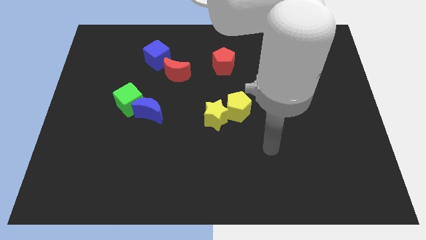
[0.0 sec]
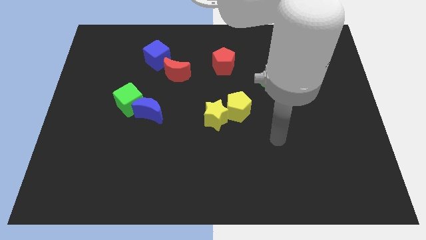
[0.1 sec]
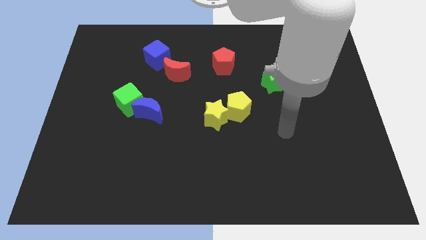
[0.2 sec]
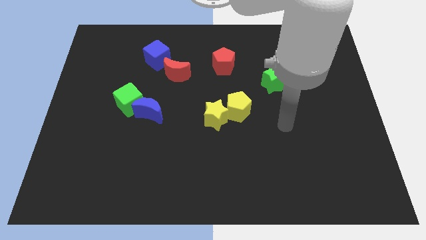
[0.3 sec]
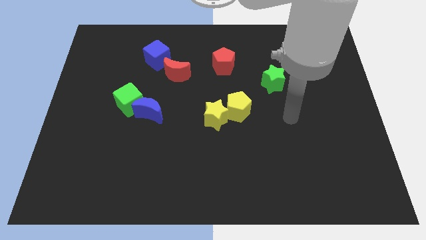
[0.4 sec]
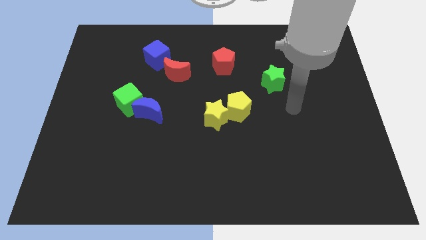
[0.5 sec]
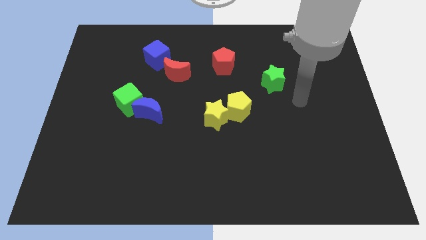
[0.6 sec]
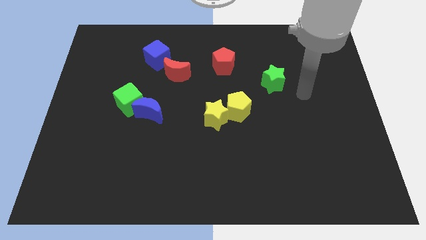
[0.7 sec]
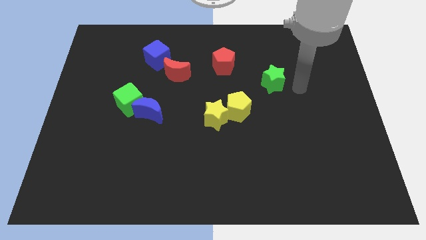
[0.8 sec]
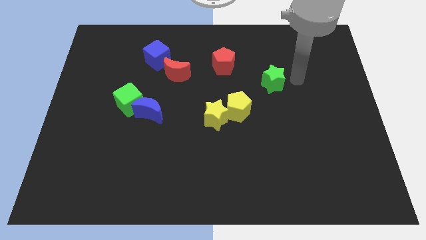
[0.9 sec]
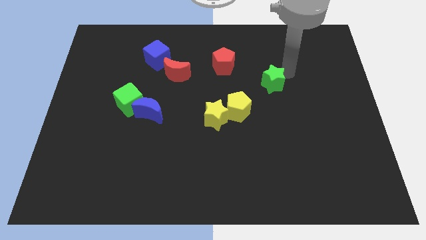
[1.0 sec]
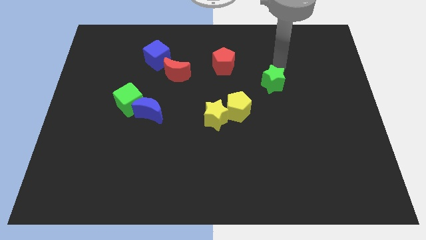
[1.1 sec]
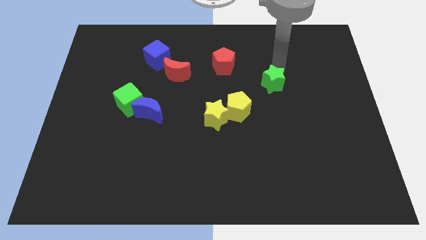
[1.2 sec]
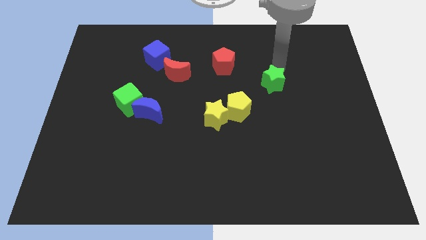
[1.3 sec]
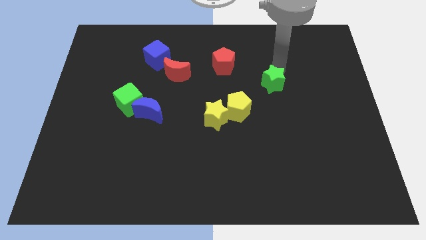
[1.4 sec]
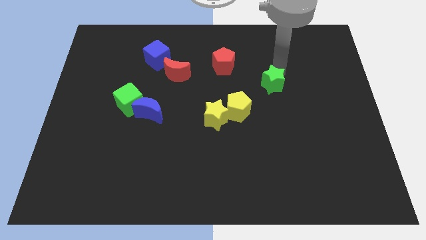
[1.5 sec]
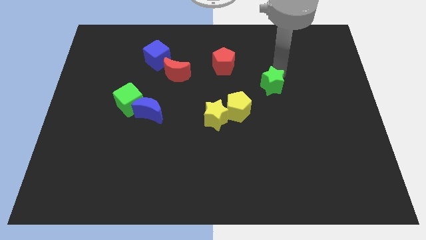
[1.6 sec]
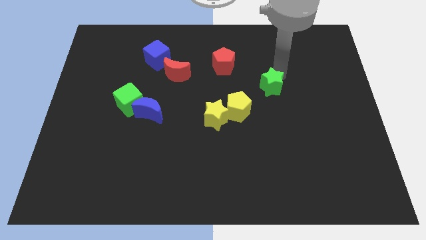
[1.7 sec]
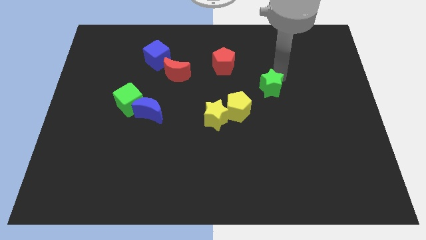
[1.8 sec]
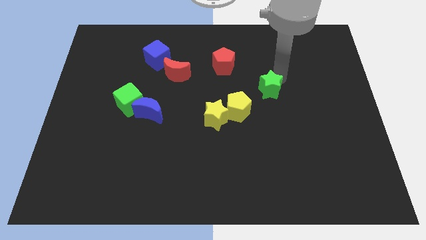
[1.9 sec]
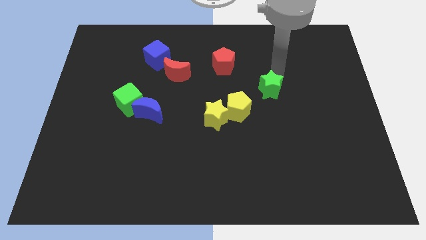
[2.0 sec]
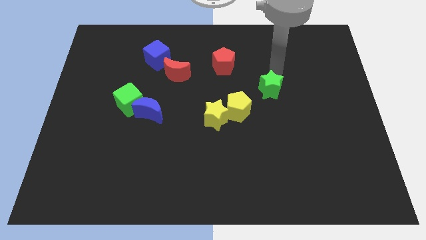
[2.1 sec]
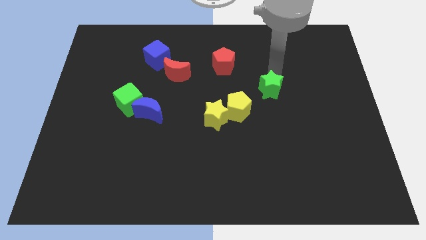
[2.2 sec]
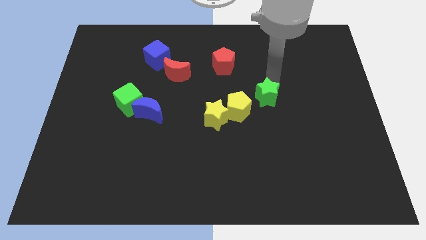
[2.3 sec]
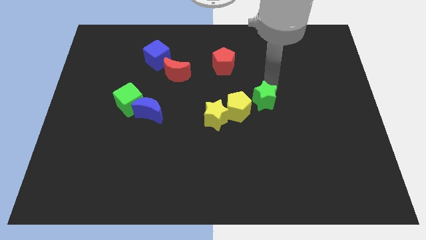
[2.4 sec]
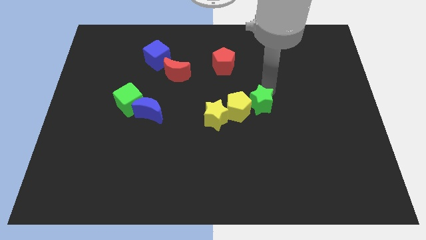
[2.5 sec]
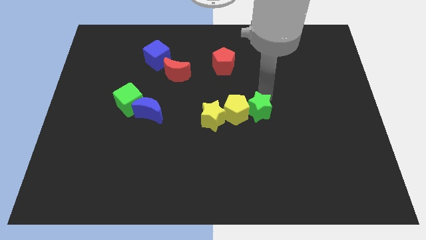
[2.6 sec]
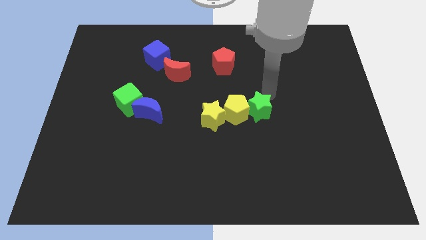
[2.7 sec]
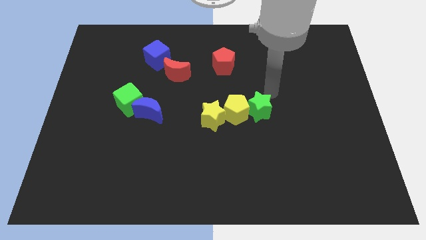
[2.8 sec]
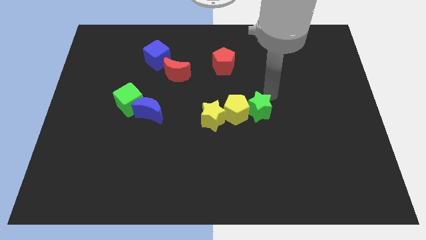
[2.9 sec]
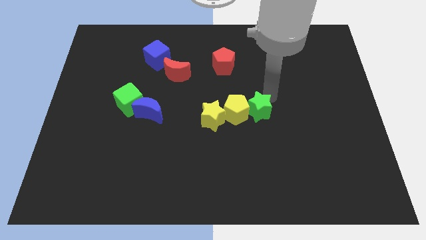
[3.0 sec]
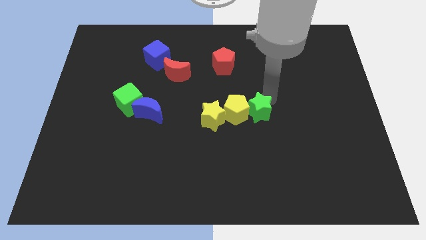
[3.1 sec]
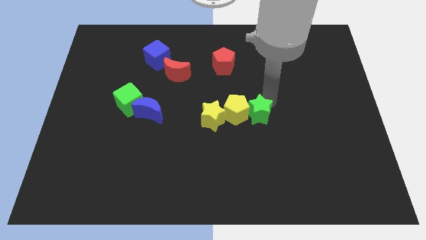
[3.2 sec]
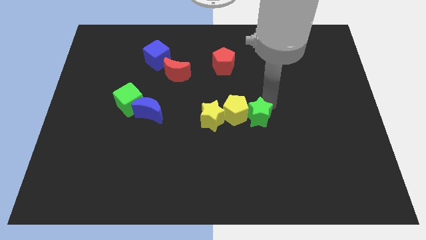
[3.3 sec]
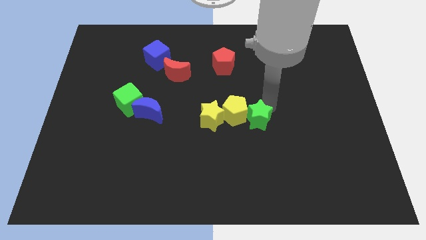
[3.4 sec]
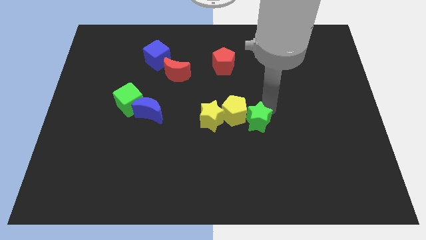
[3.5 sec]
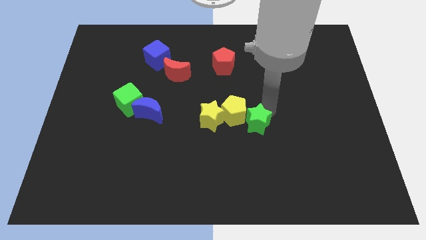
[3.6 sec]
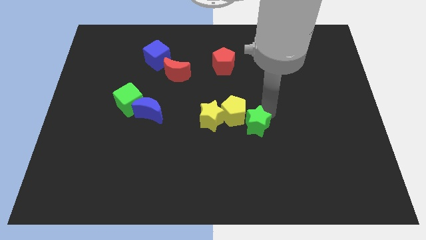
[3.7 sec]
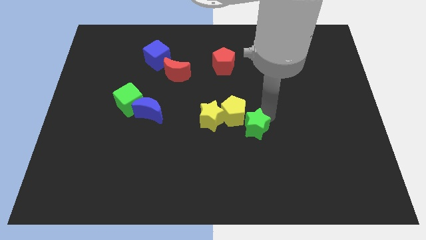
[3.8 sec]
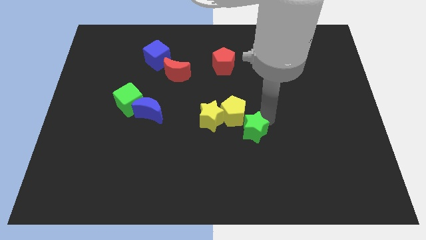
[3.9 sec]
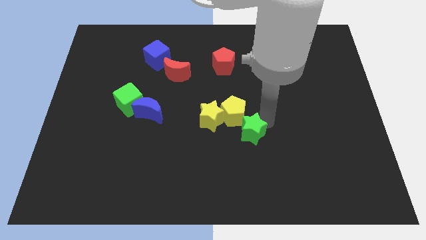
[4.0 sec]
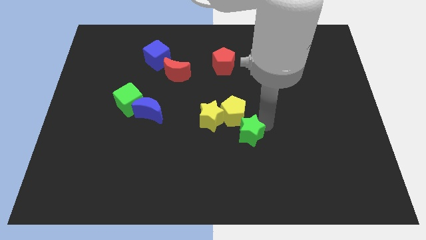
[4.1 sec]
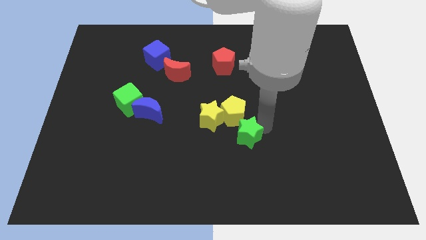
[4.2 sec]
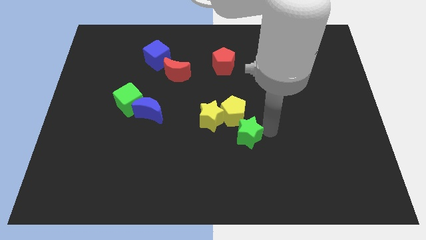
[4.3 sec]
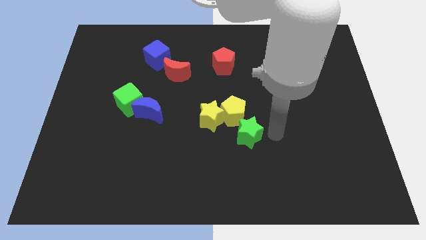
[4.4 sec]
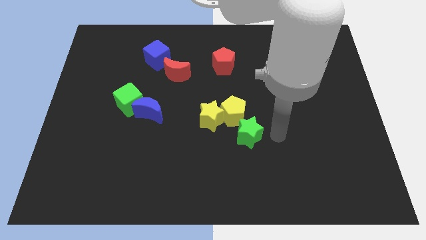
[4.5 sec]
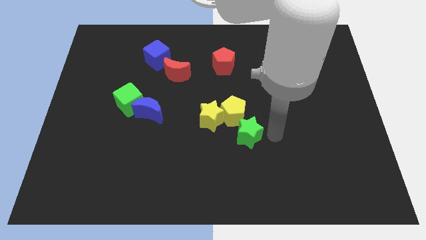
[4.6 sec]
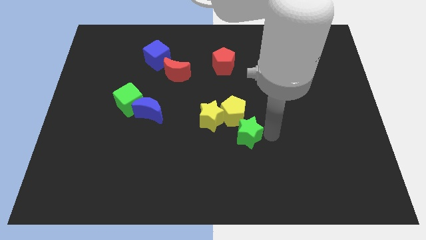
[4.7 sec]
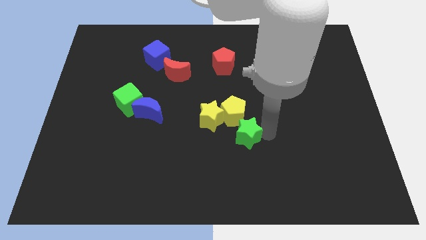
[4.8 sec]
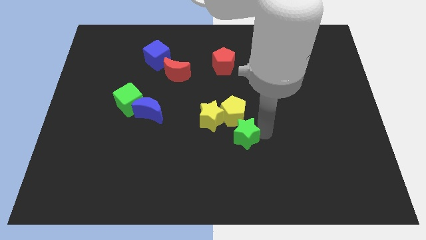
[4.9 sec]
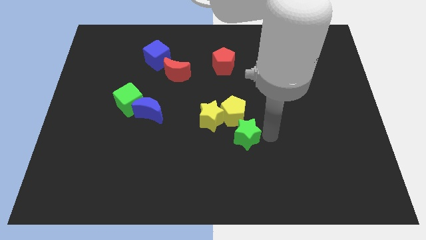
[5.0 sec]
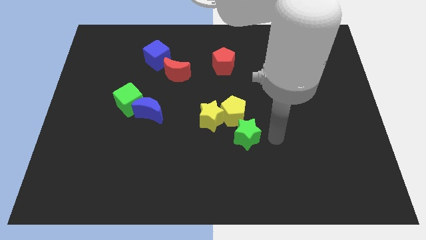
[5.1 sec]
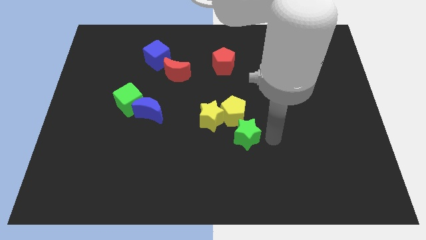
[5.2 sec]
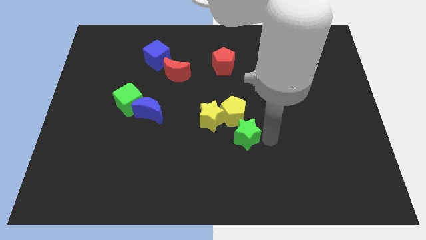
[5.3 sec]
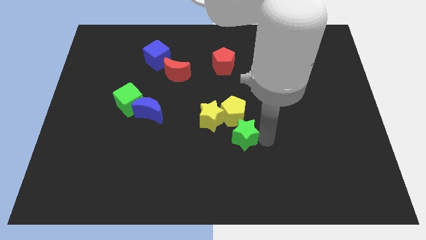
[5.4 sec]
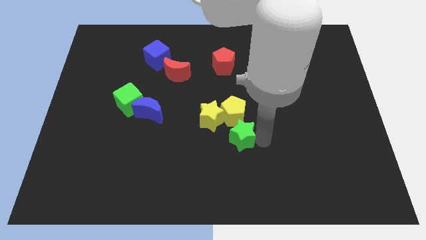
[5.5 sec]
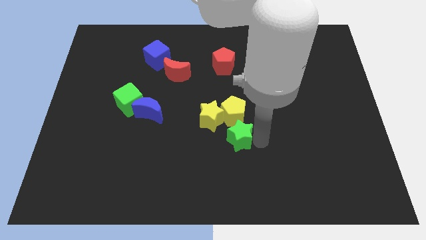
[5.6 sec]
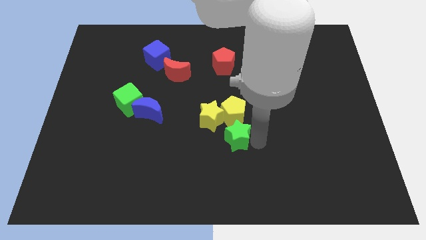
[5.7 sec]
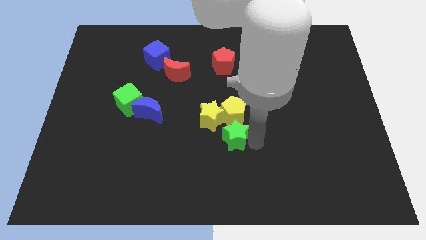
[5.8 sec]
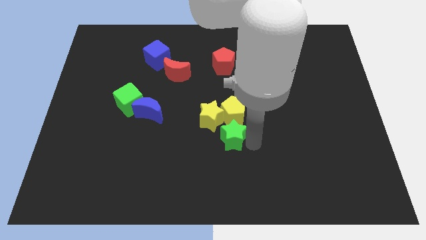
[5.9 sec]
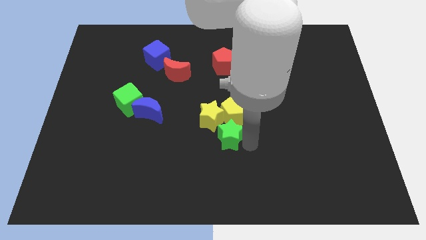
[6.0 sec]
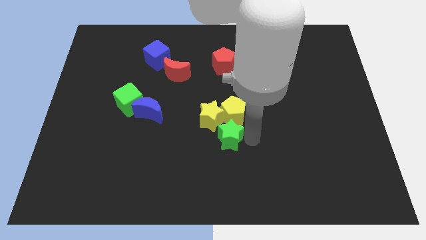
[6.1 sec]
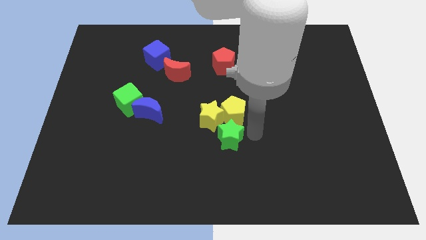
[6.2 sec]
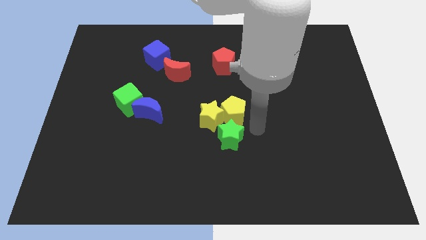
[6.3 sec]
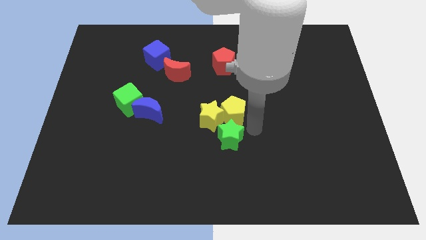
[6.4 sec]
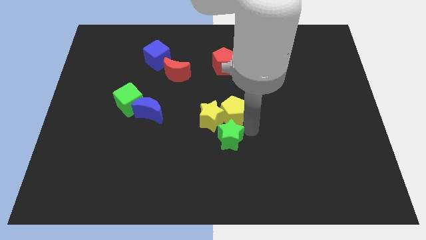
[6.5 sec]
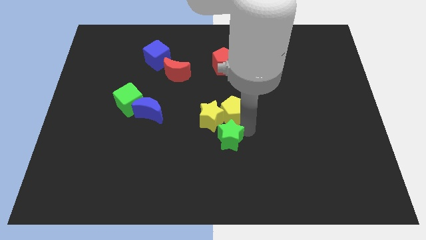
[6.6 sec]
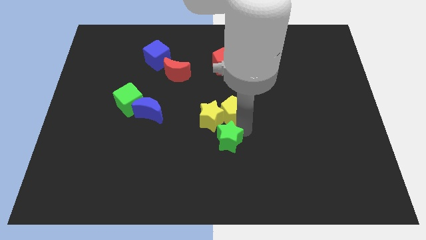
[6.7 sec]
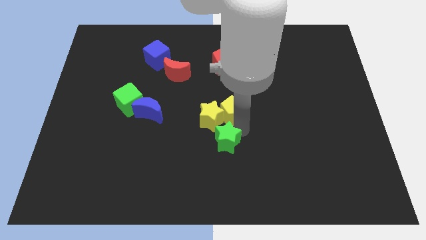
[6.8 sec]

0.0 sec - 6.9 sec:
move the green star down and left diagonally

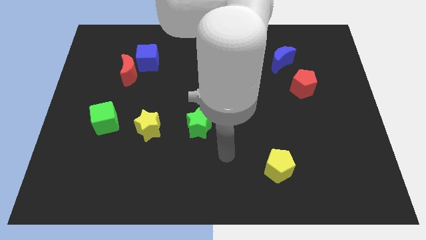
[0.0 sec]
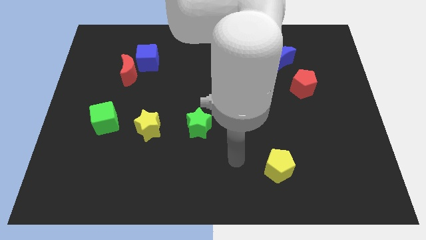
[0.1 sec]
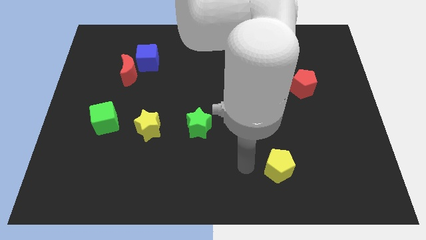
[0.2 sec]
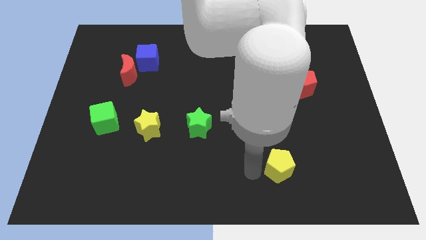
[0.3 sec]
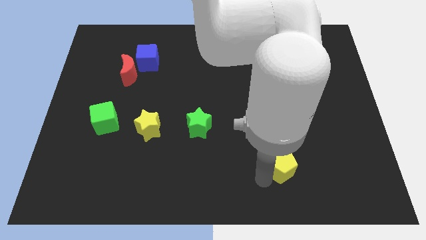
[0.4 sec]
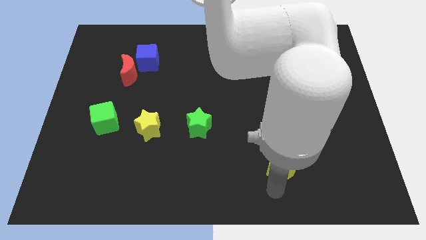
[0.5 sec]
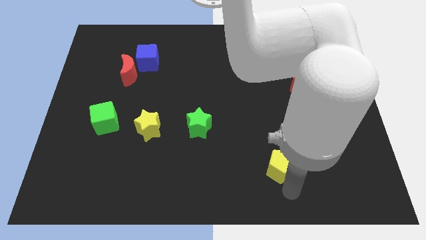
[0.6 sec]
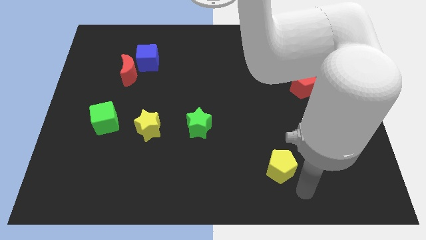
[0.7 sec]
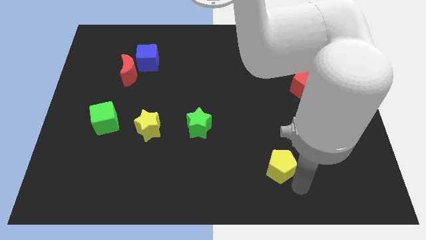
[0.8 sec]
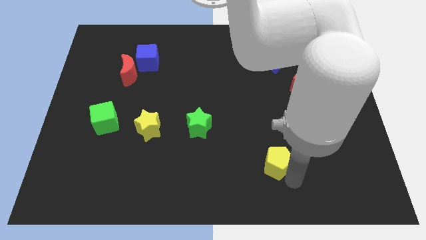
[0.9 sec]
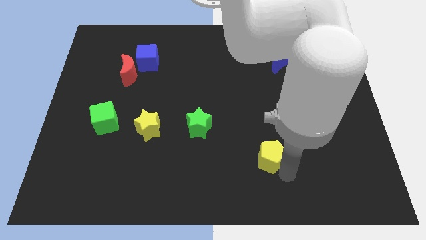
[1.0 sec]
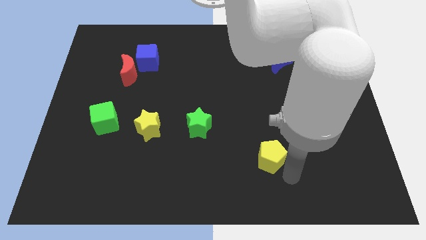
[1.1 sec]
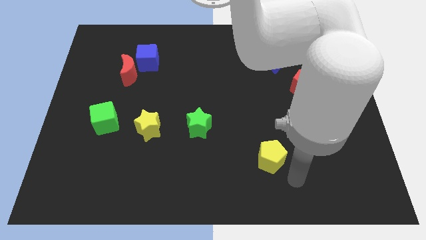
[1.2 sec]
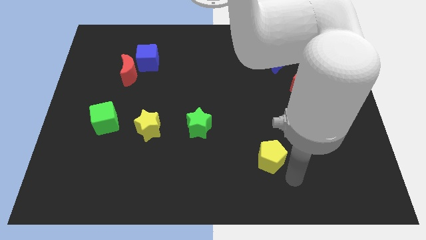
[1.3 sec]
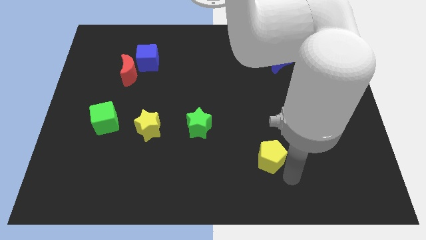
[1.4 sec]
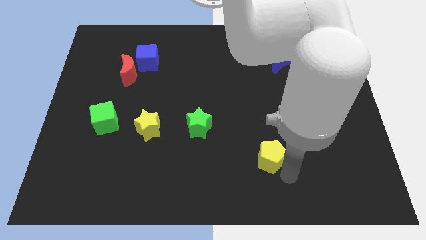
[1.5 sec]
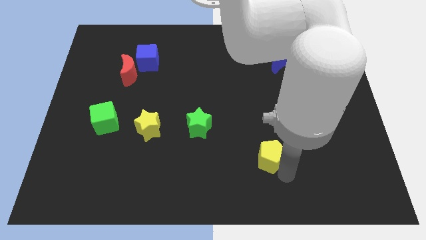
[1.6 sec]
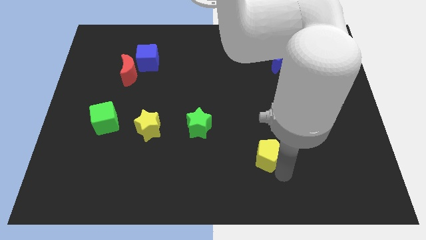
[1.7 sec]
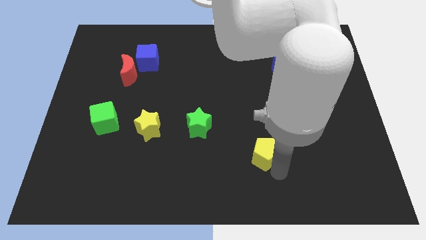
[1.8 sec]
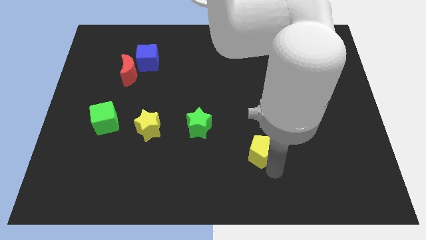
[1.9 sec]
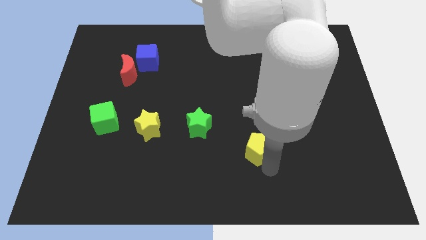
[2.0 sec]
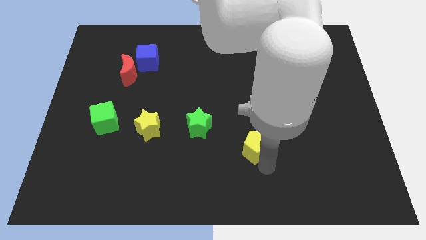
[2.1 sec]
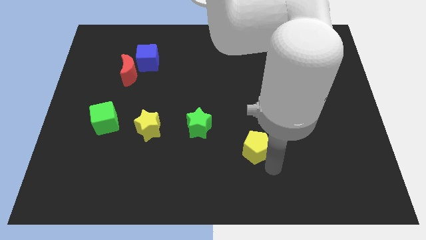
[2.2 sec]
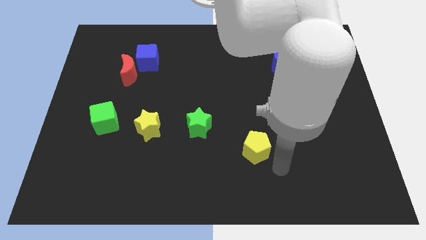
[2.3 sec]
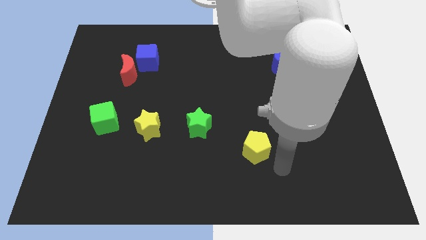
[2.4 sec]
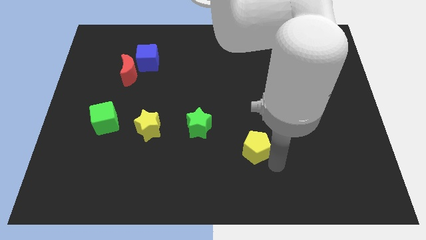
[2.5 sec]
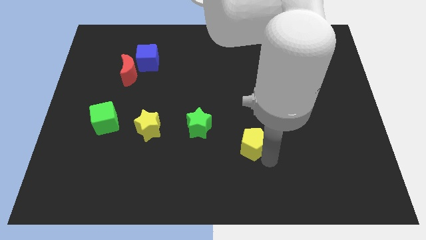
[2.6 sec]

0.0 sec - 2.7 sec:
slightly move the yellow pentagon up and left
